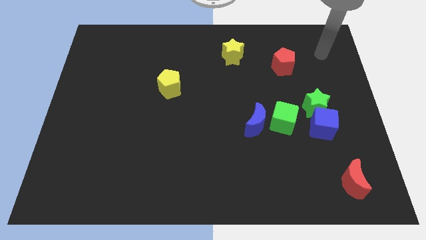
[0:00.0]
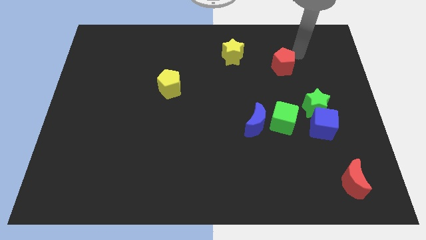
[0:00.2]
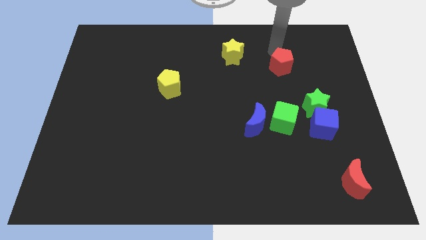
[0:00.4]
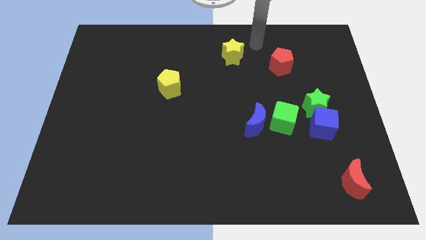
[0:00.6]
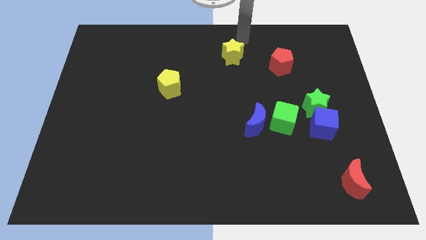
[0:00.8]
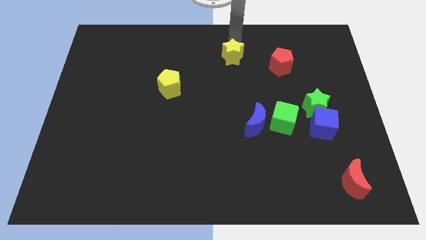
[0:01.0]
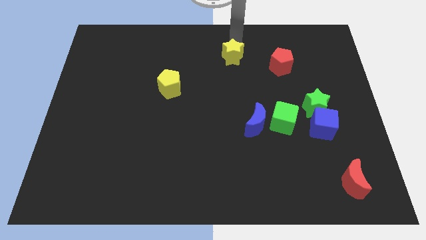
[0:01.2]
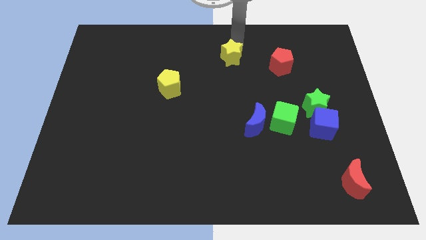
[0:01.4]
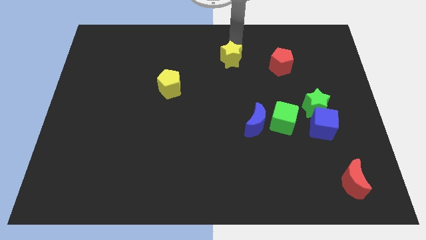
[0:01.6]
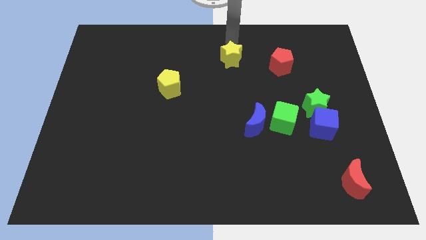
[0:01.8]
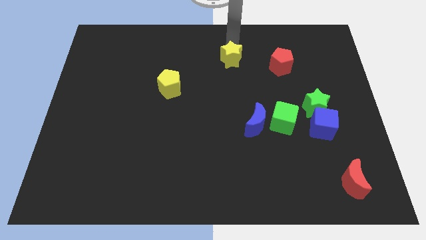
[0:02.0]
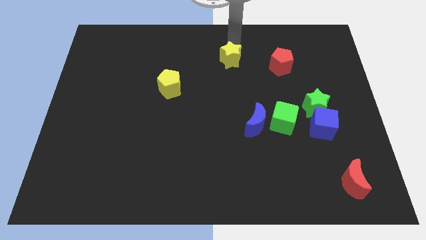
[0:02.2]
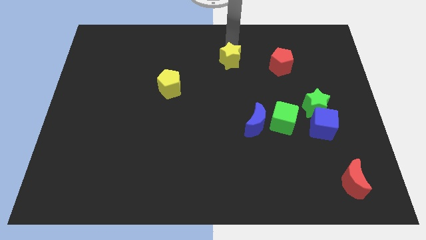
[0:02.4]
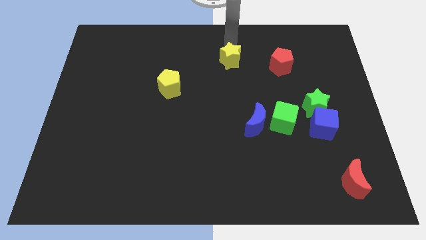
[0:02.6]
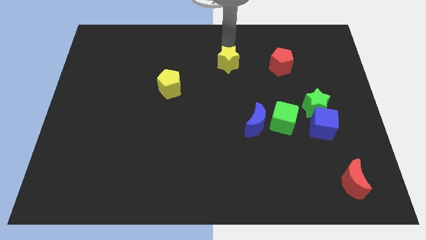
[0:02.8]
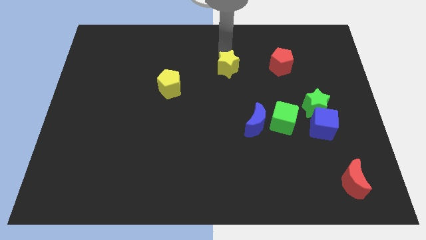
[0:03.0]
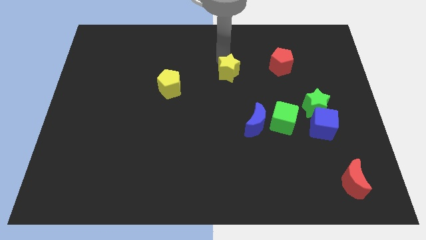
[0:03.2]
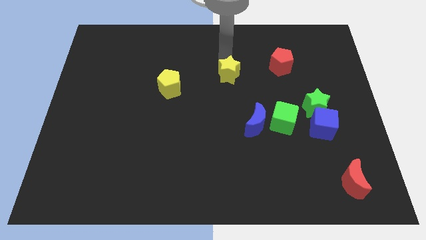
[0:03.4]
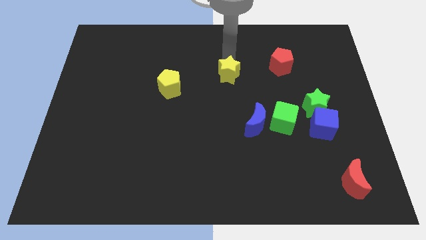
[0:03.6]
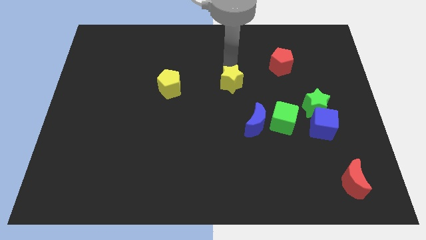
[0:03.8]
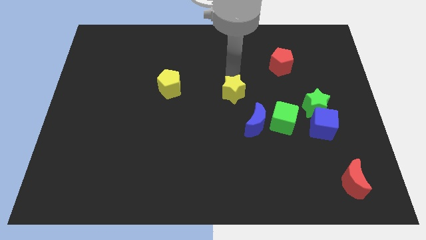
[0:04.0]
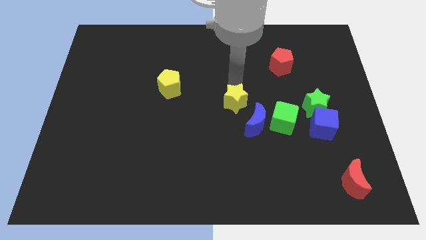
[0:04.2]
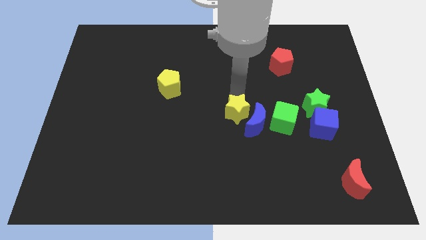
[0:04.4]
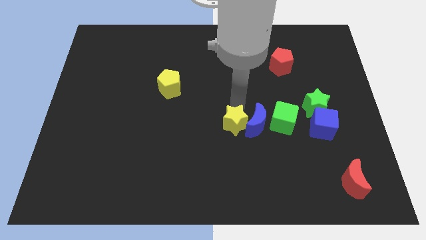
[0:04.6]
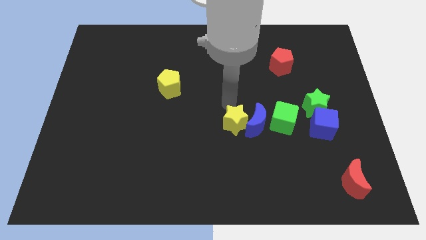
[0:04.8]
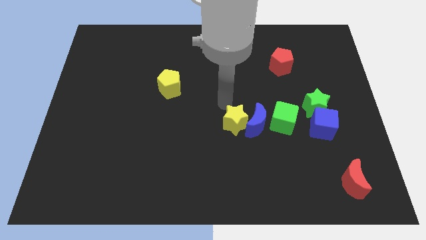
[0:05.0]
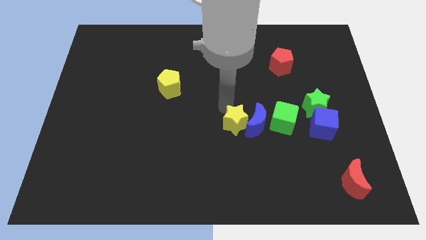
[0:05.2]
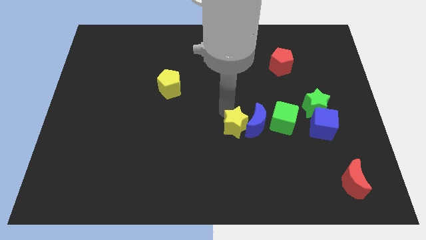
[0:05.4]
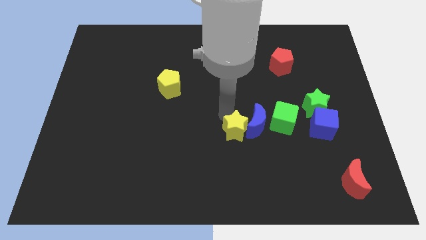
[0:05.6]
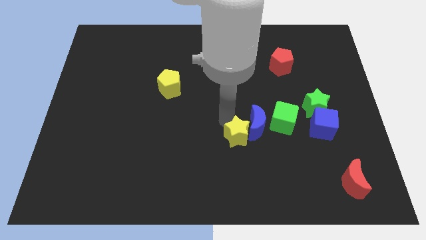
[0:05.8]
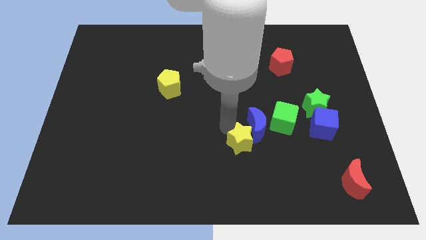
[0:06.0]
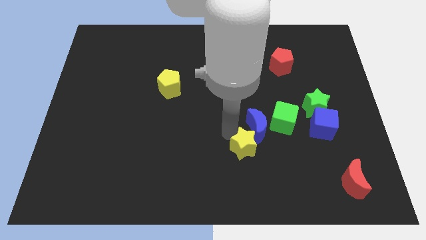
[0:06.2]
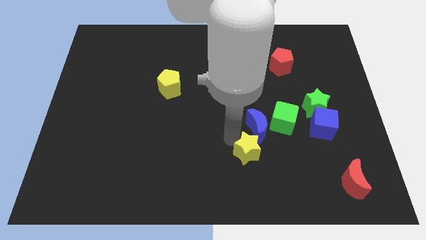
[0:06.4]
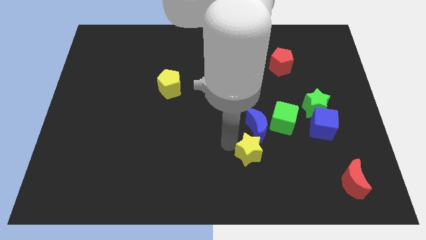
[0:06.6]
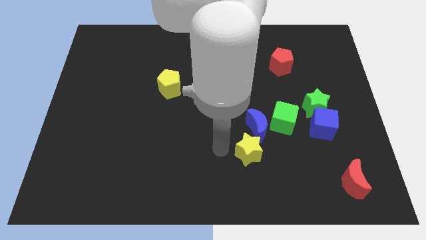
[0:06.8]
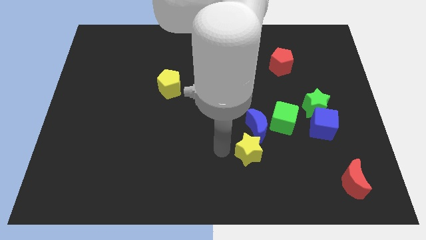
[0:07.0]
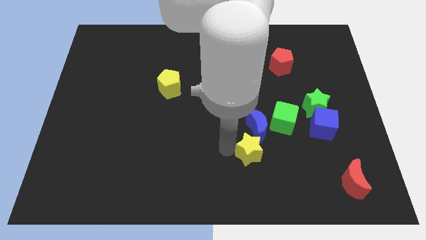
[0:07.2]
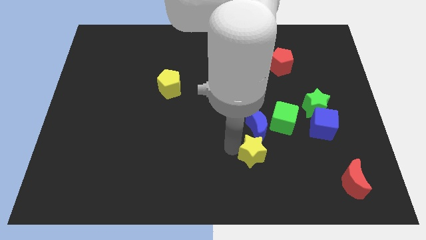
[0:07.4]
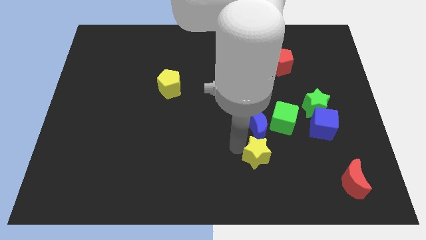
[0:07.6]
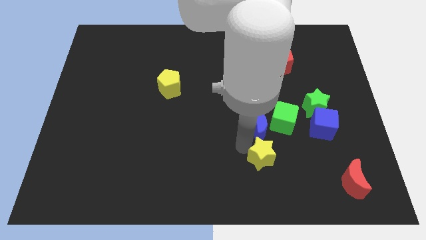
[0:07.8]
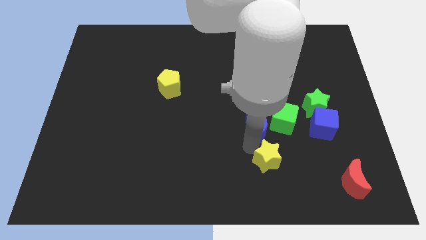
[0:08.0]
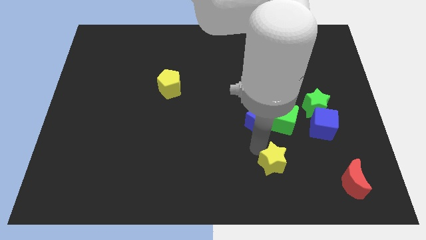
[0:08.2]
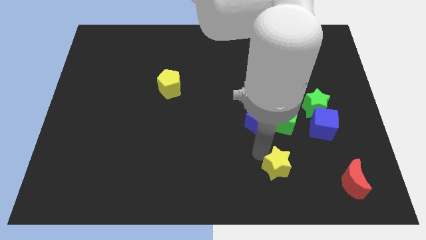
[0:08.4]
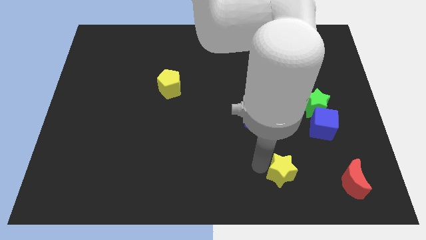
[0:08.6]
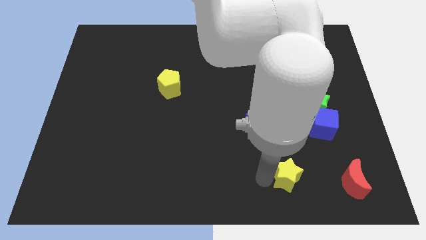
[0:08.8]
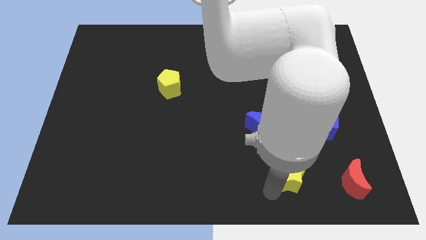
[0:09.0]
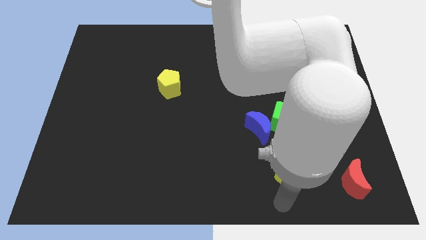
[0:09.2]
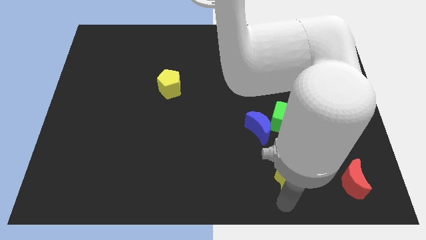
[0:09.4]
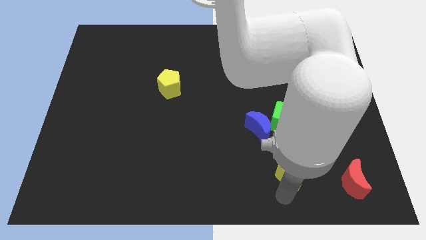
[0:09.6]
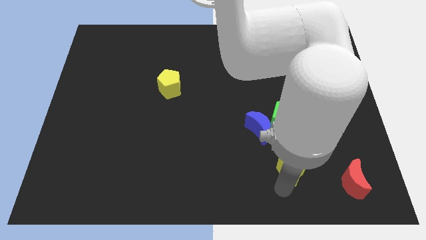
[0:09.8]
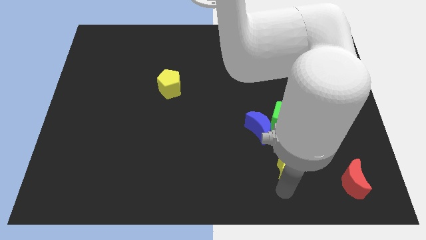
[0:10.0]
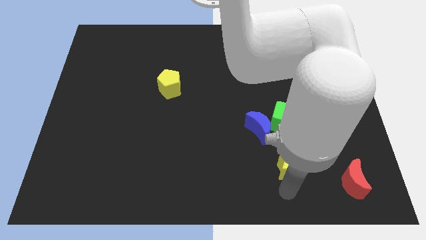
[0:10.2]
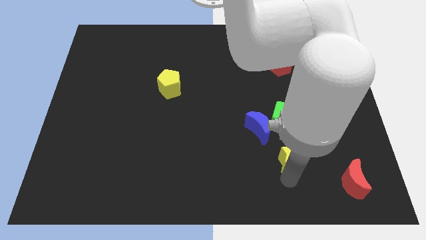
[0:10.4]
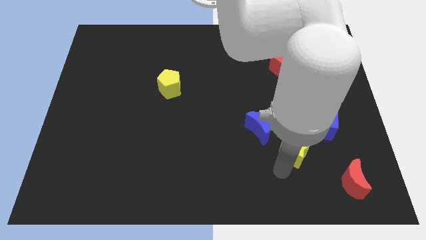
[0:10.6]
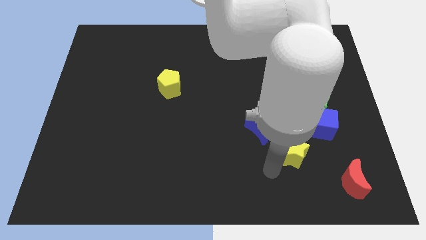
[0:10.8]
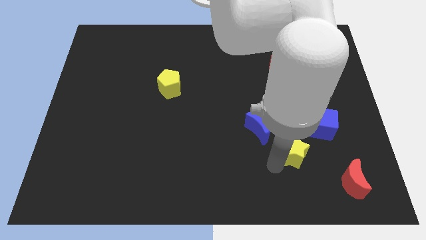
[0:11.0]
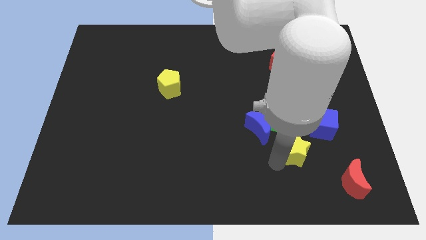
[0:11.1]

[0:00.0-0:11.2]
push the yellow star to the bottom right of the green cube
